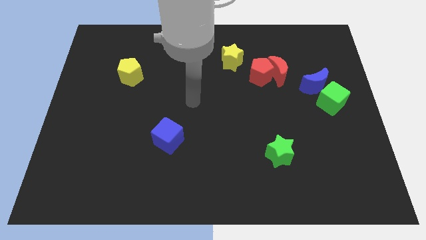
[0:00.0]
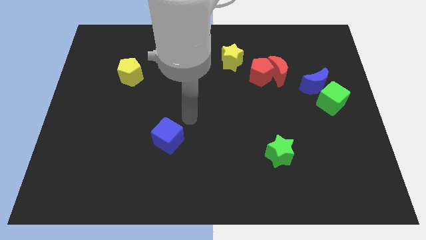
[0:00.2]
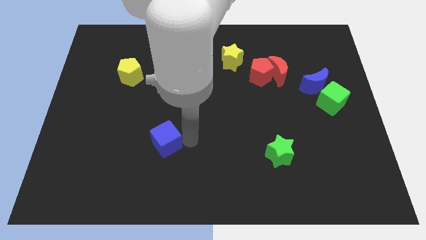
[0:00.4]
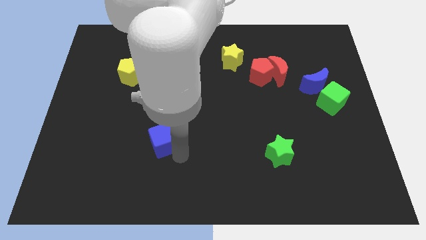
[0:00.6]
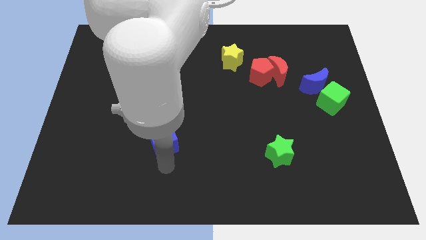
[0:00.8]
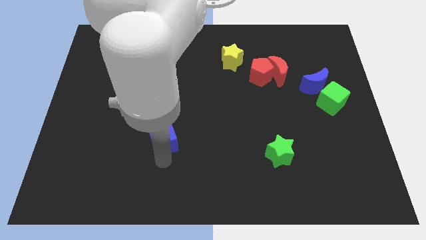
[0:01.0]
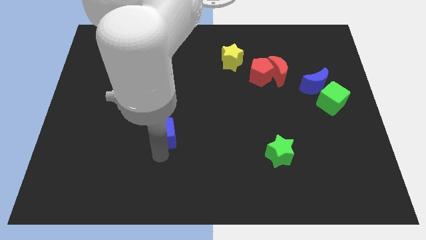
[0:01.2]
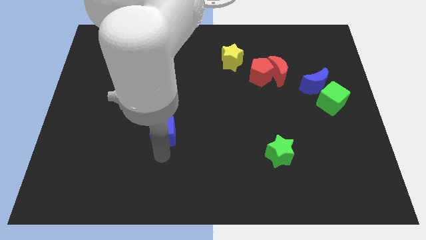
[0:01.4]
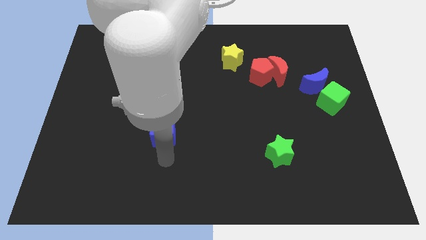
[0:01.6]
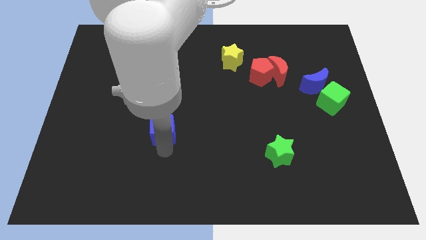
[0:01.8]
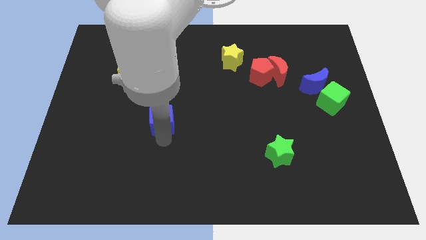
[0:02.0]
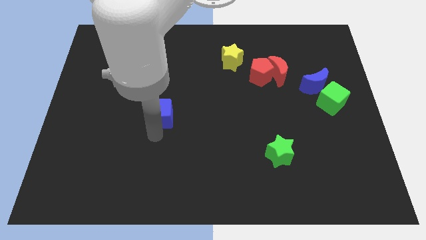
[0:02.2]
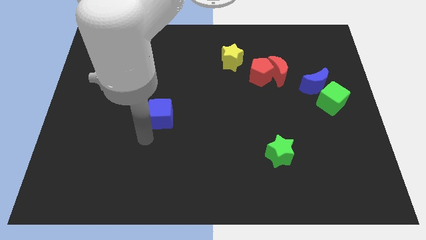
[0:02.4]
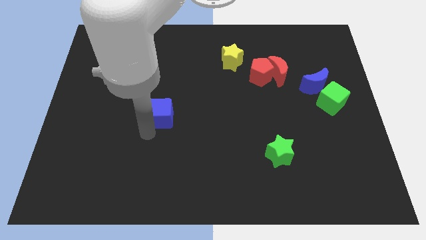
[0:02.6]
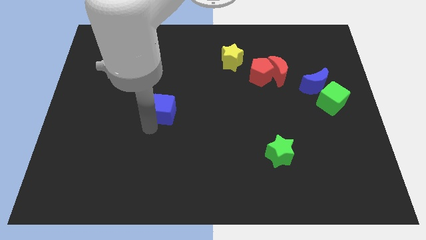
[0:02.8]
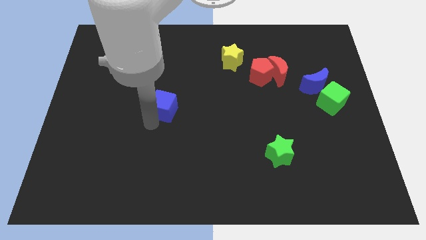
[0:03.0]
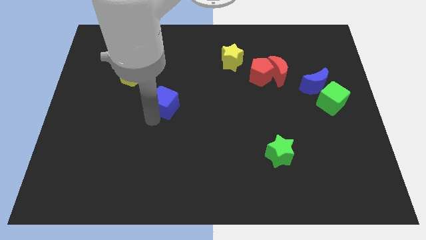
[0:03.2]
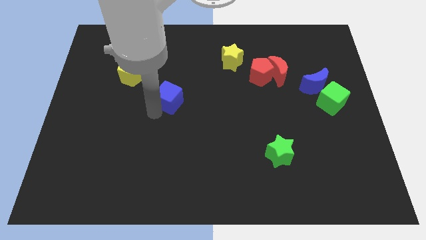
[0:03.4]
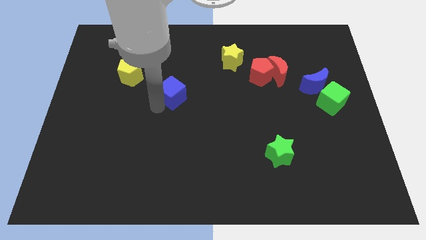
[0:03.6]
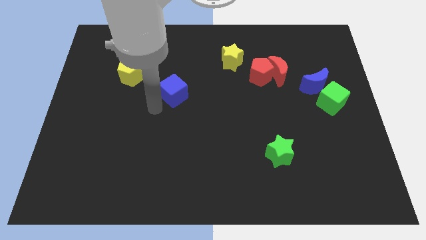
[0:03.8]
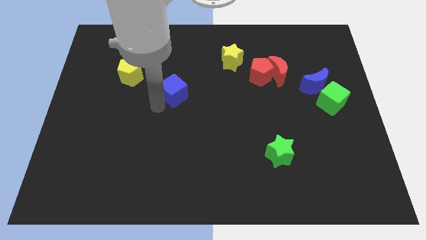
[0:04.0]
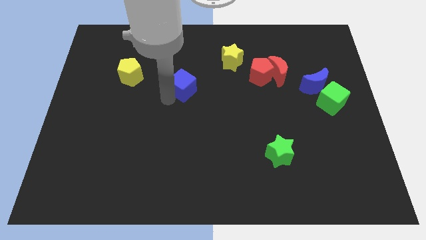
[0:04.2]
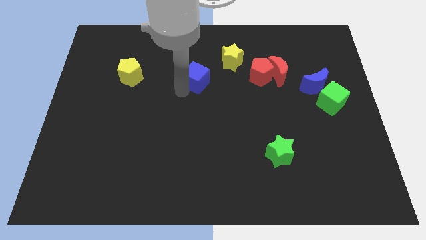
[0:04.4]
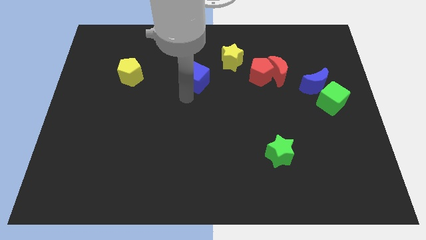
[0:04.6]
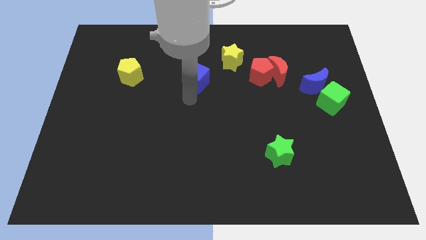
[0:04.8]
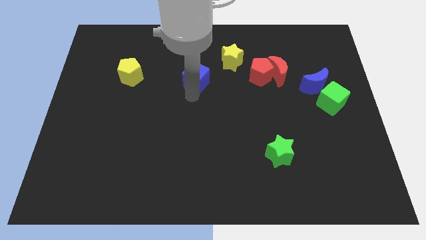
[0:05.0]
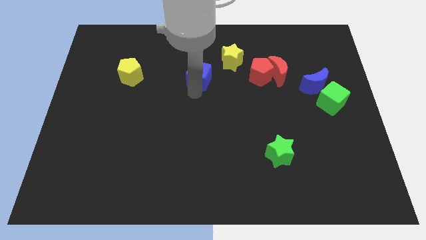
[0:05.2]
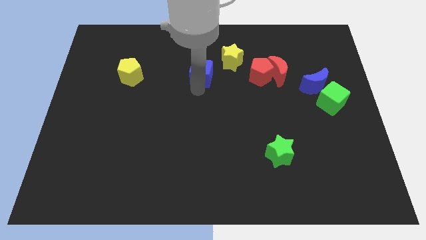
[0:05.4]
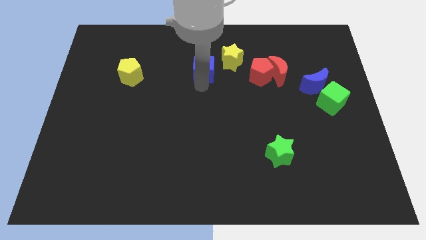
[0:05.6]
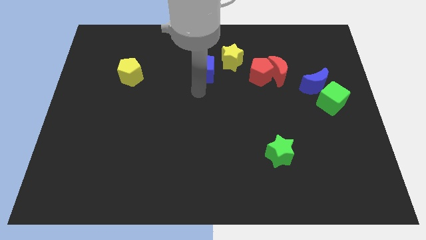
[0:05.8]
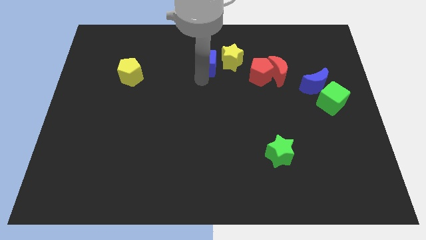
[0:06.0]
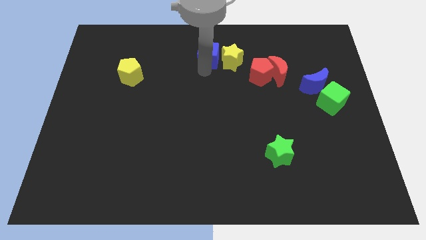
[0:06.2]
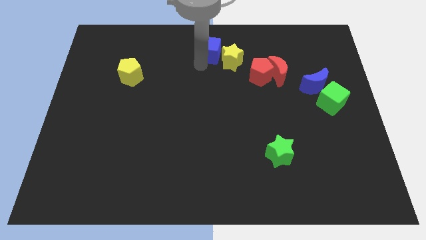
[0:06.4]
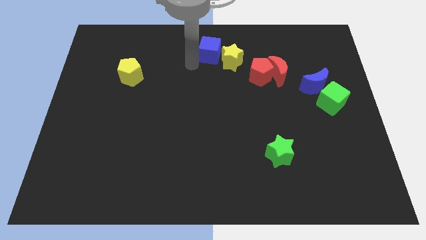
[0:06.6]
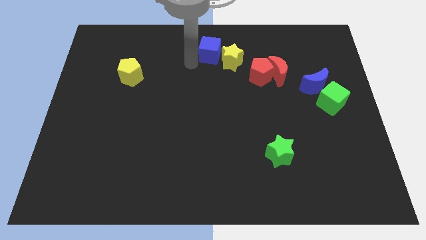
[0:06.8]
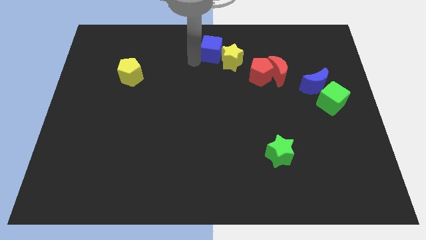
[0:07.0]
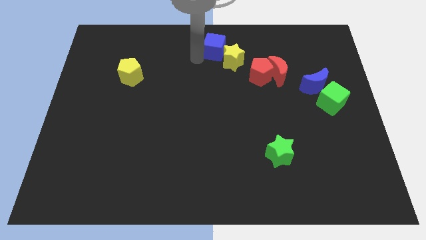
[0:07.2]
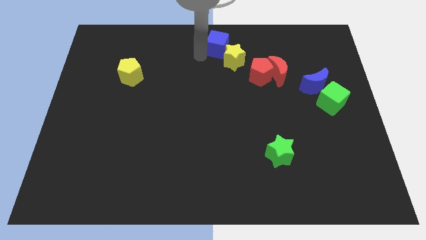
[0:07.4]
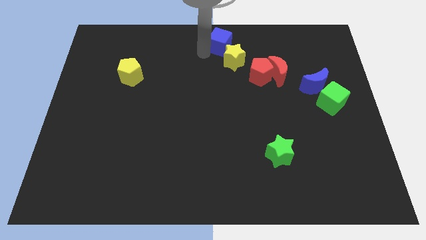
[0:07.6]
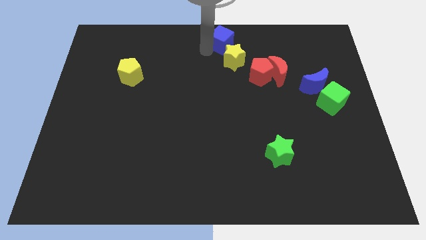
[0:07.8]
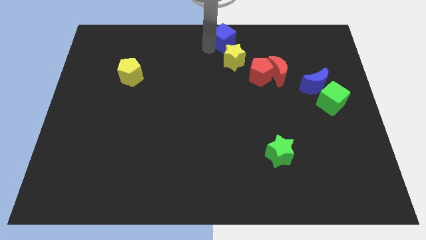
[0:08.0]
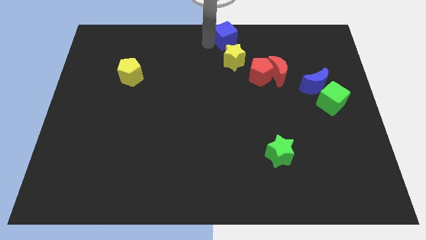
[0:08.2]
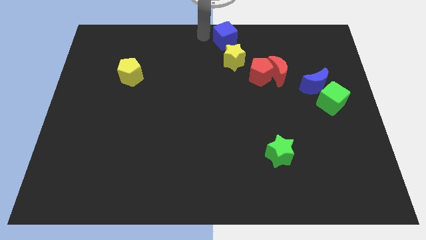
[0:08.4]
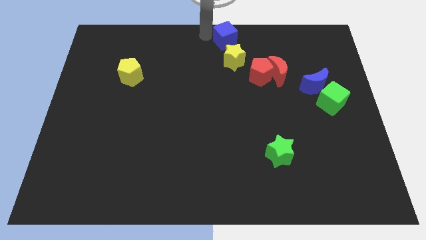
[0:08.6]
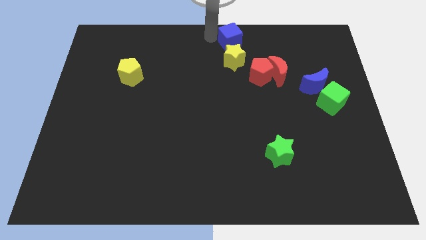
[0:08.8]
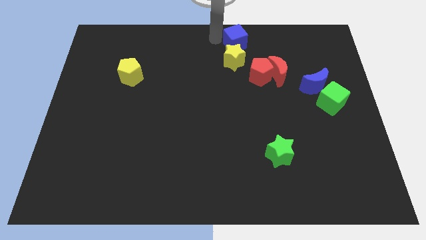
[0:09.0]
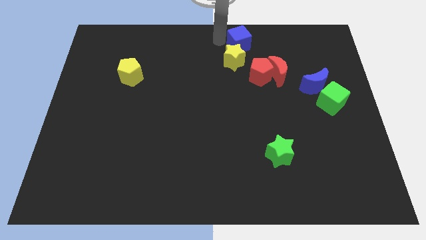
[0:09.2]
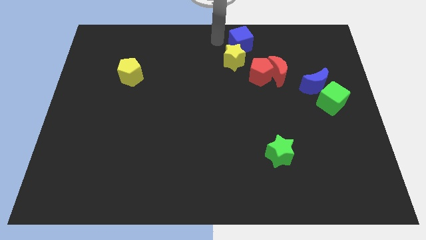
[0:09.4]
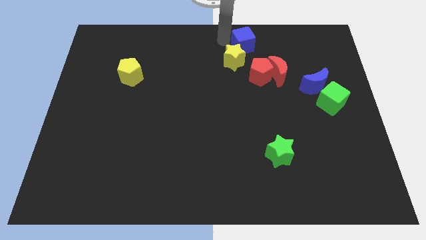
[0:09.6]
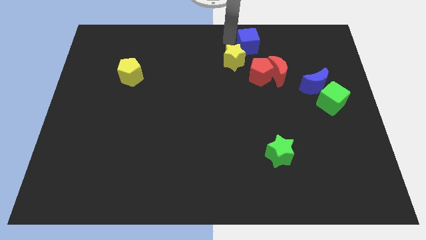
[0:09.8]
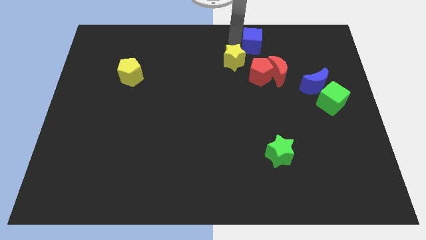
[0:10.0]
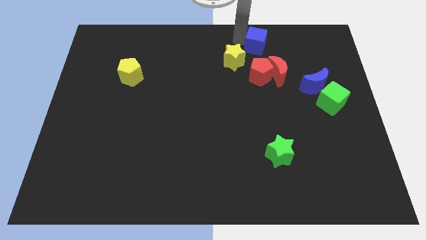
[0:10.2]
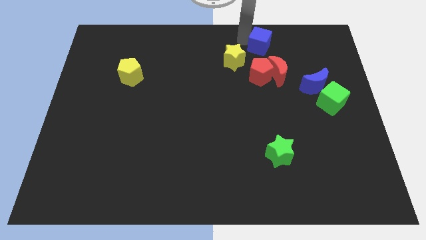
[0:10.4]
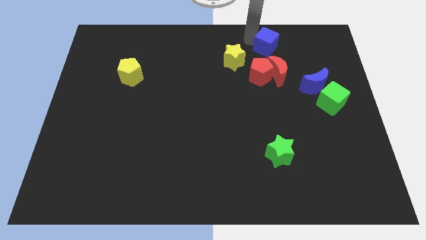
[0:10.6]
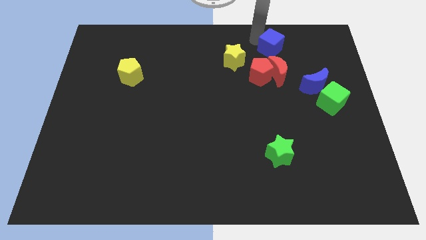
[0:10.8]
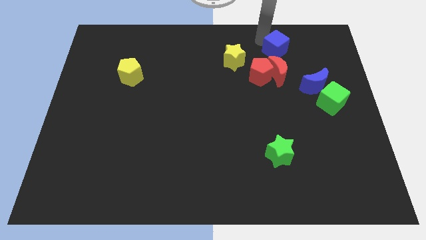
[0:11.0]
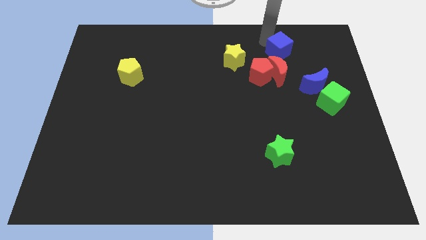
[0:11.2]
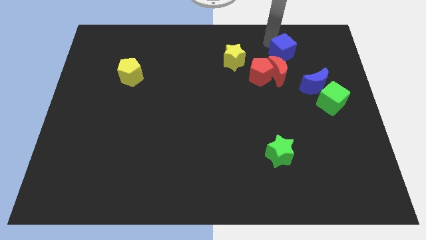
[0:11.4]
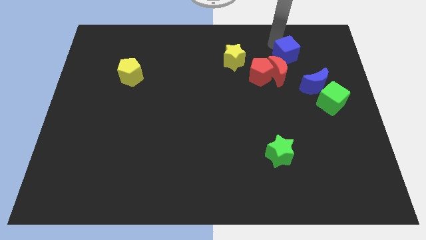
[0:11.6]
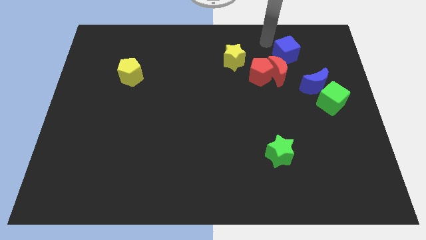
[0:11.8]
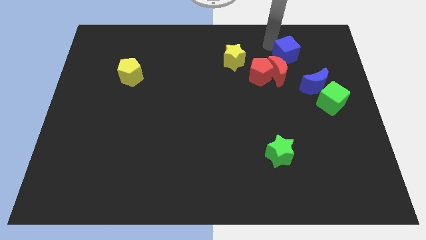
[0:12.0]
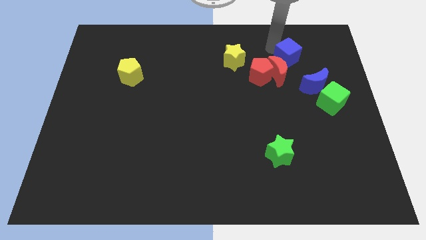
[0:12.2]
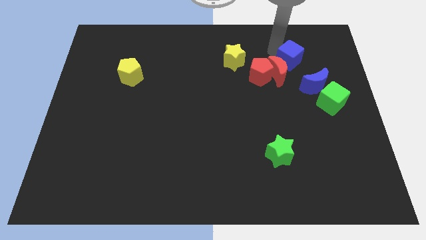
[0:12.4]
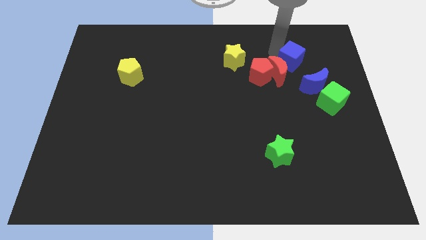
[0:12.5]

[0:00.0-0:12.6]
slide the blue cube right of the red moon

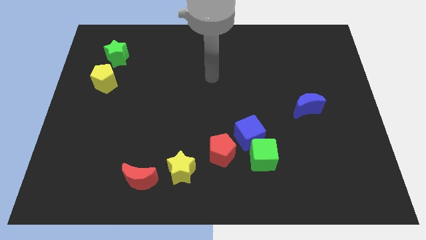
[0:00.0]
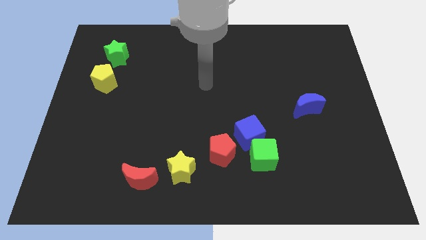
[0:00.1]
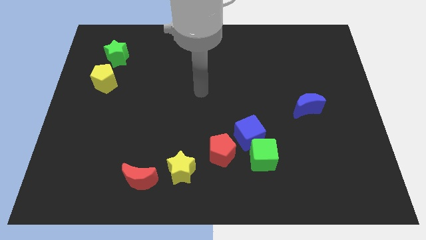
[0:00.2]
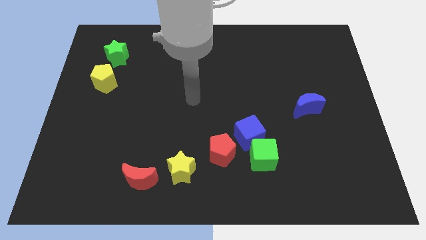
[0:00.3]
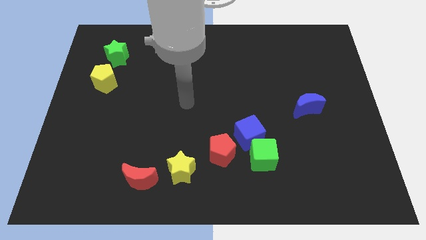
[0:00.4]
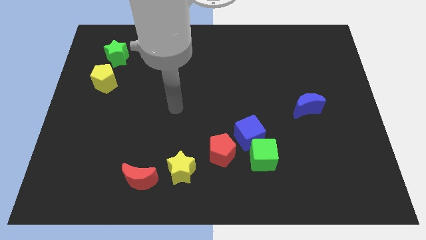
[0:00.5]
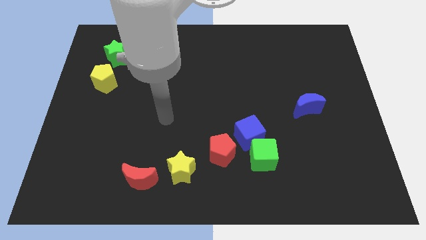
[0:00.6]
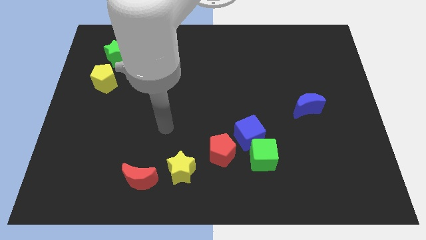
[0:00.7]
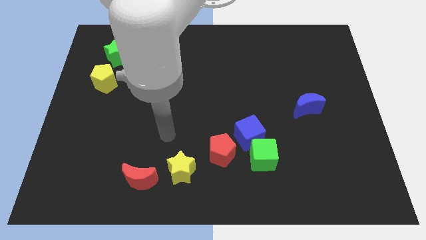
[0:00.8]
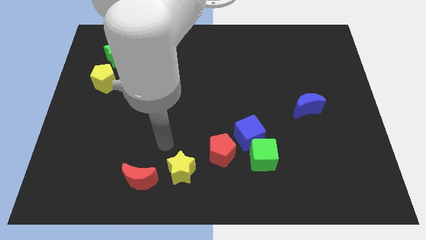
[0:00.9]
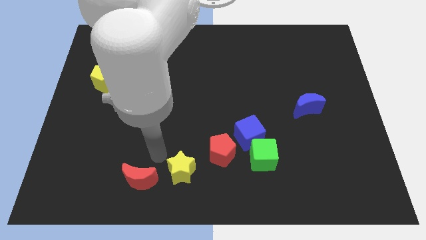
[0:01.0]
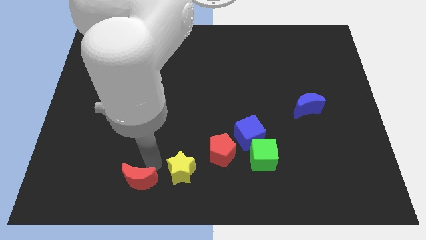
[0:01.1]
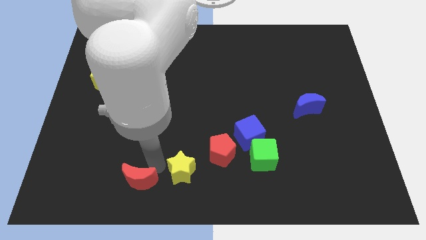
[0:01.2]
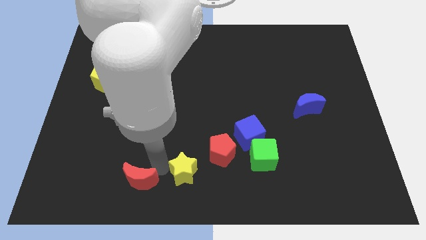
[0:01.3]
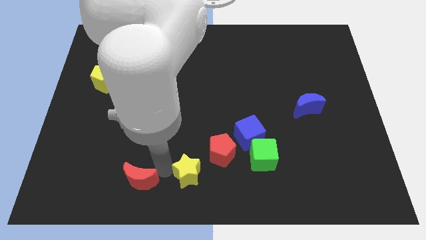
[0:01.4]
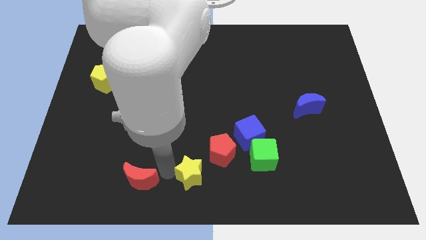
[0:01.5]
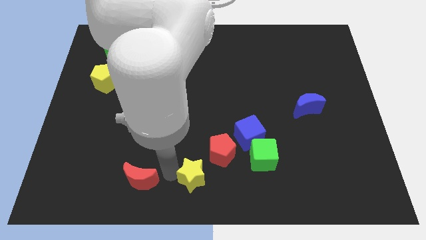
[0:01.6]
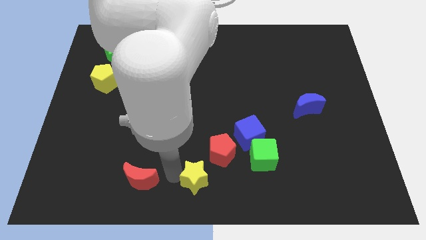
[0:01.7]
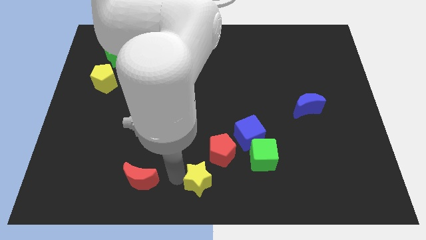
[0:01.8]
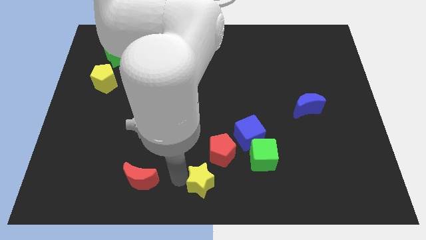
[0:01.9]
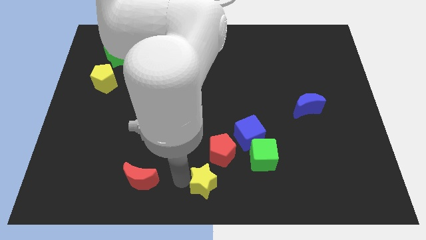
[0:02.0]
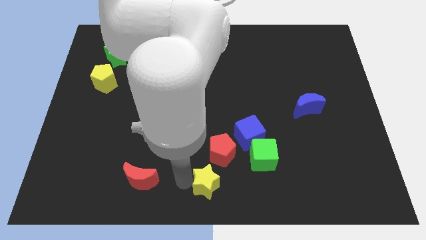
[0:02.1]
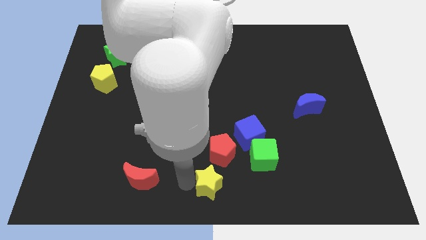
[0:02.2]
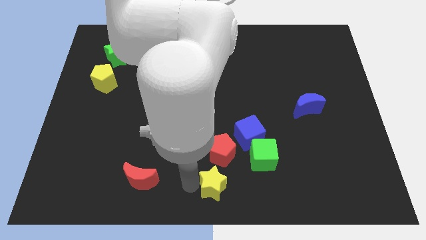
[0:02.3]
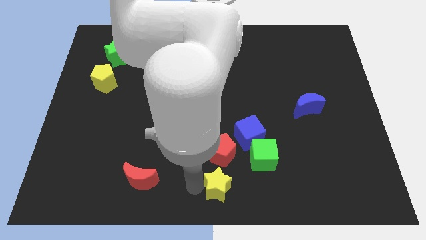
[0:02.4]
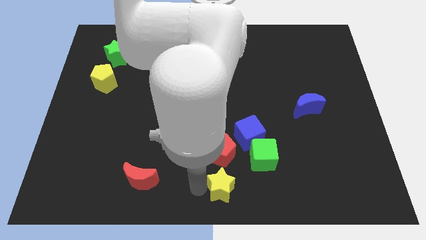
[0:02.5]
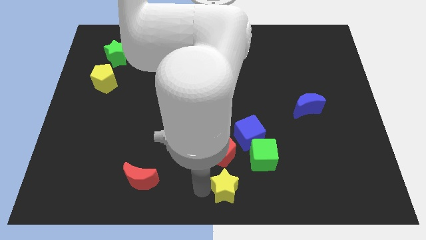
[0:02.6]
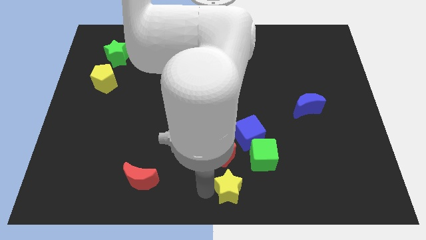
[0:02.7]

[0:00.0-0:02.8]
push the yellow star to the bottom of the blue cube
